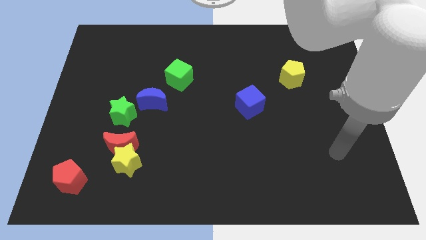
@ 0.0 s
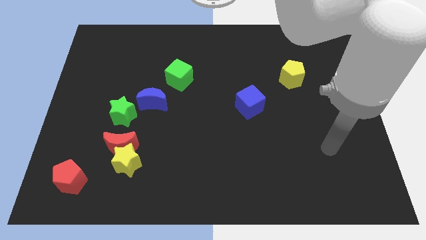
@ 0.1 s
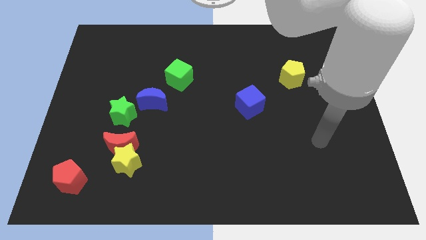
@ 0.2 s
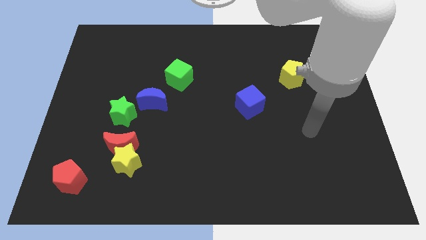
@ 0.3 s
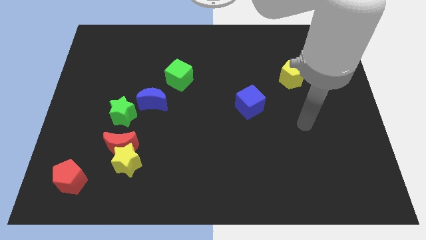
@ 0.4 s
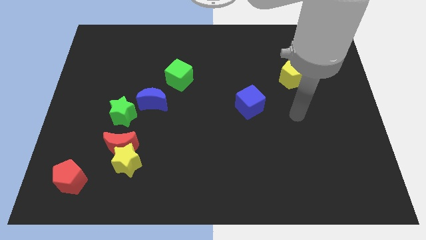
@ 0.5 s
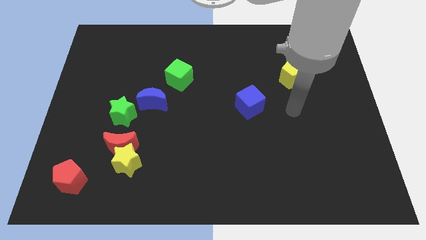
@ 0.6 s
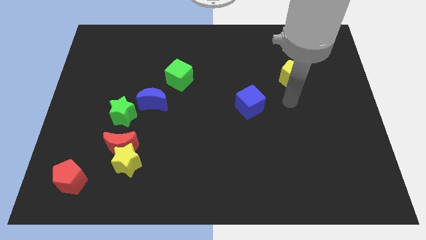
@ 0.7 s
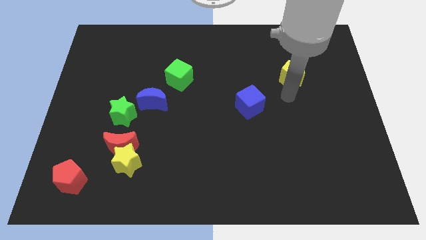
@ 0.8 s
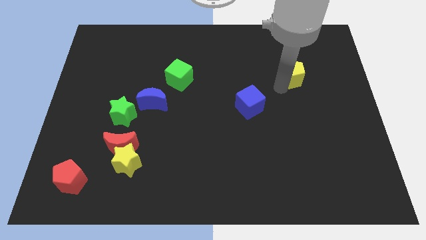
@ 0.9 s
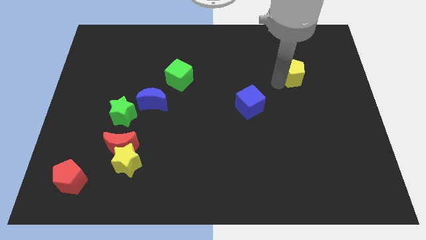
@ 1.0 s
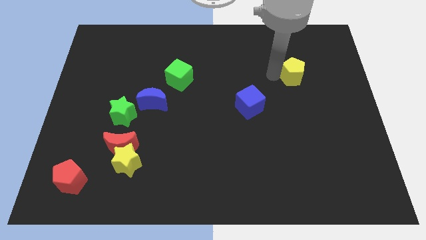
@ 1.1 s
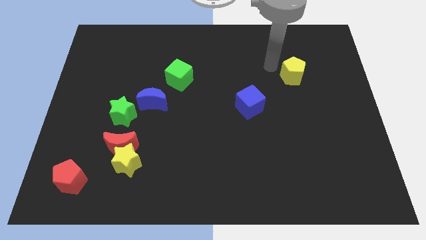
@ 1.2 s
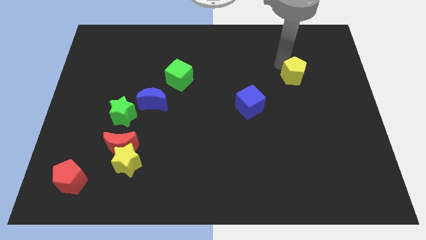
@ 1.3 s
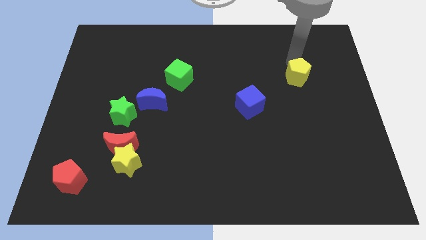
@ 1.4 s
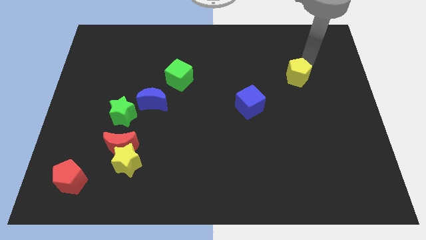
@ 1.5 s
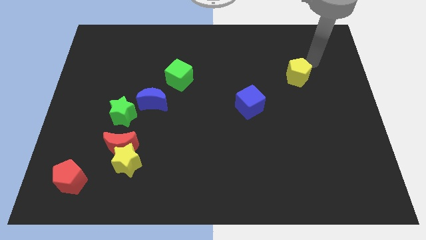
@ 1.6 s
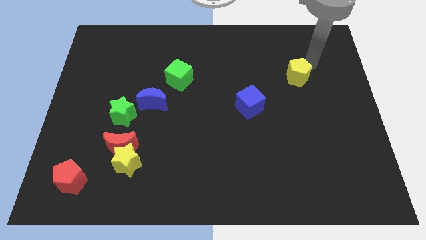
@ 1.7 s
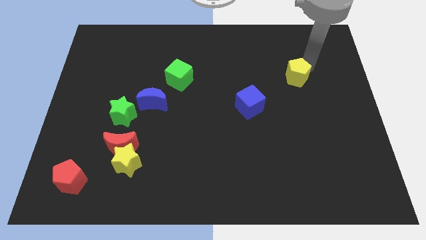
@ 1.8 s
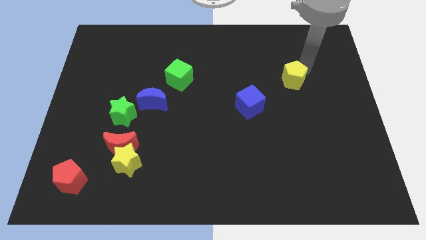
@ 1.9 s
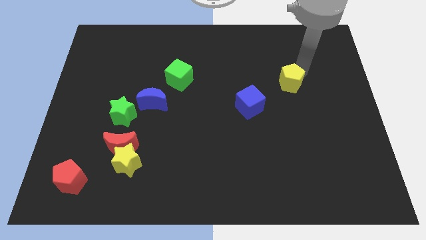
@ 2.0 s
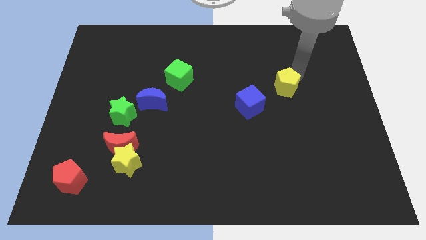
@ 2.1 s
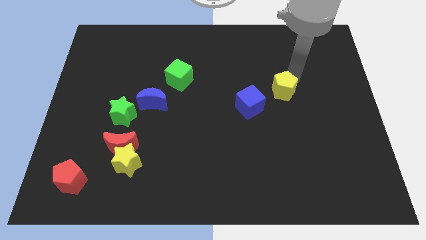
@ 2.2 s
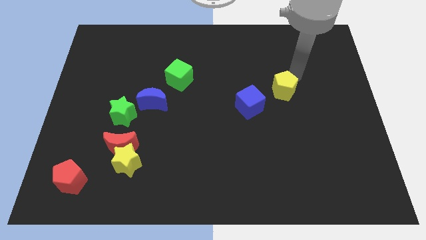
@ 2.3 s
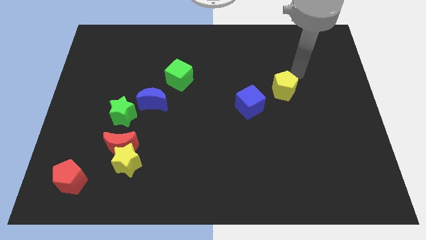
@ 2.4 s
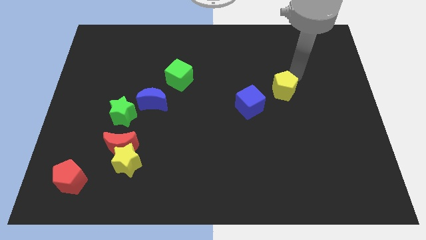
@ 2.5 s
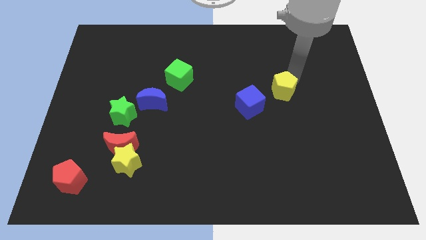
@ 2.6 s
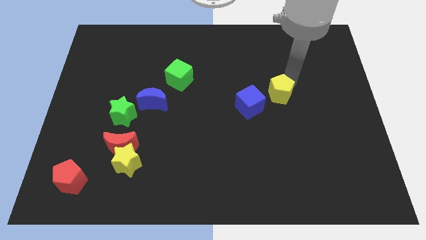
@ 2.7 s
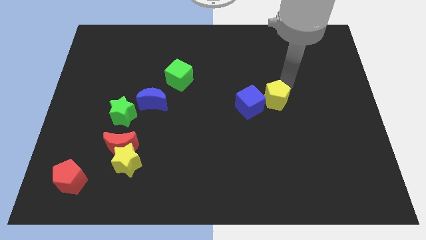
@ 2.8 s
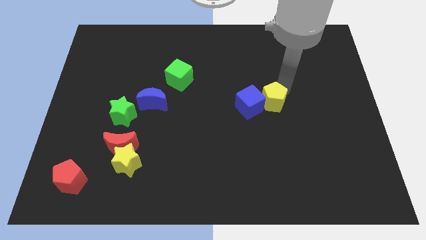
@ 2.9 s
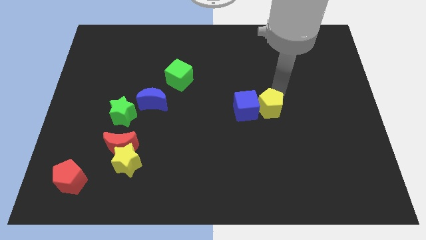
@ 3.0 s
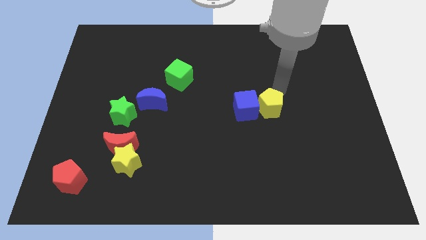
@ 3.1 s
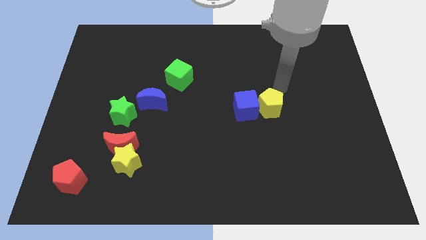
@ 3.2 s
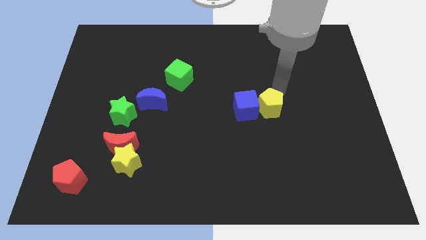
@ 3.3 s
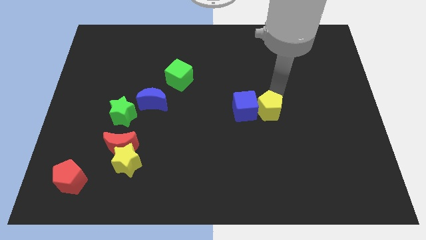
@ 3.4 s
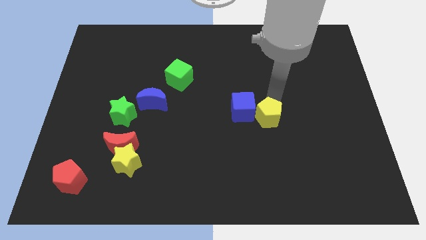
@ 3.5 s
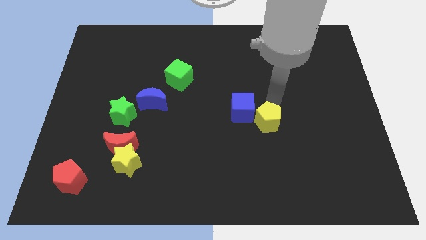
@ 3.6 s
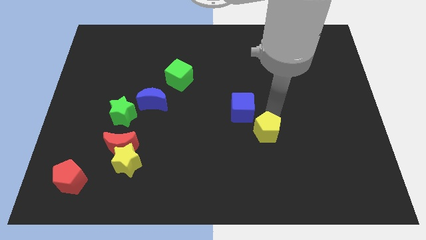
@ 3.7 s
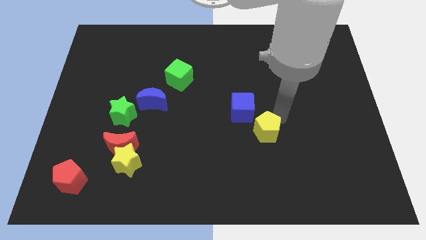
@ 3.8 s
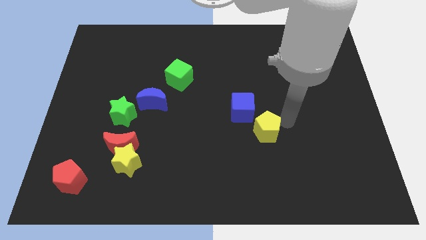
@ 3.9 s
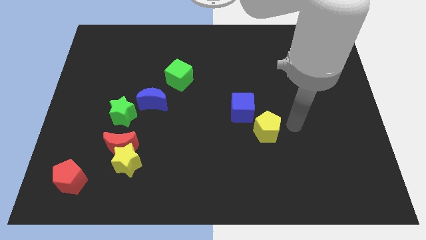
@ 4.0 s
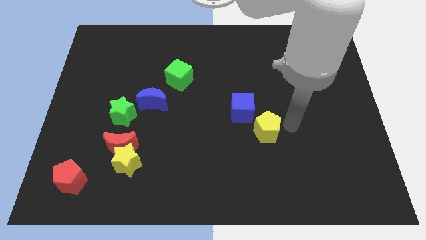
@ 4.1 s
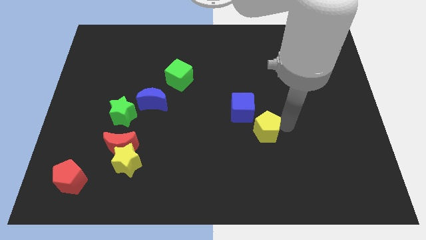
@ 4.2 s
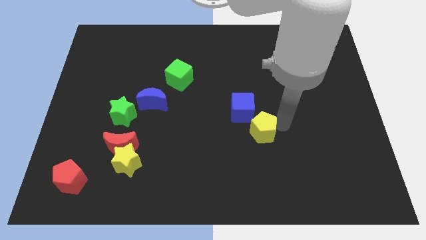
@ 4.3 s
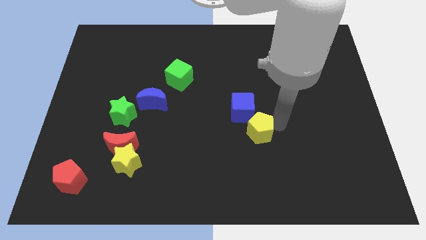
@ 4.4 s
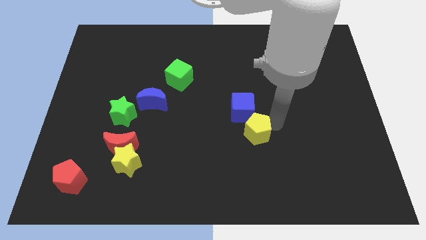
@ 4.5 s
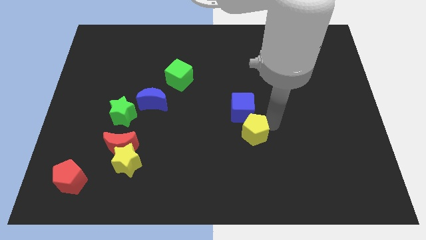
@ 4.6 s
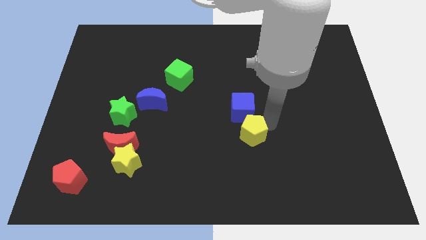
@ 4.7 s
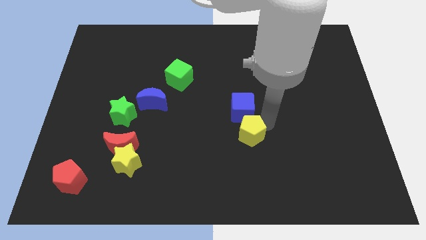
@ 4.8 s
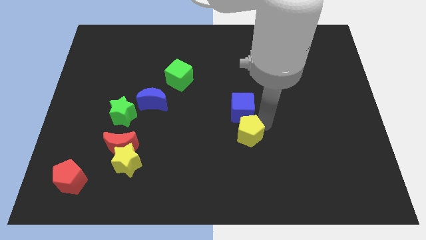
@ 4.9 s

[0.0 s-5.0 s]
move the yellow pentagon down and to the left

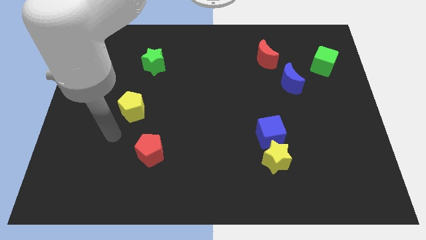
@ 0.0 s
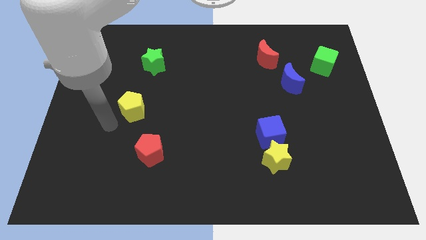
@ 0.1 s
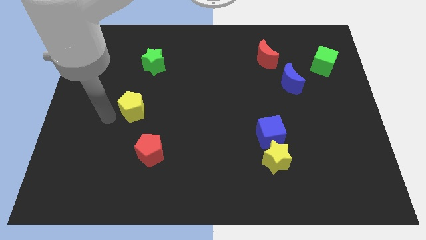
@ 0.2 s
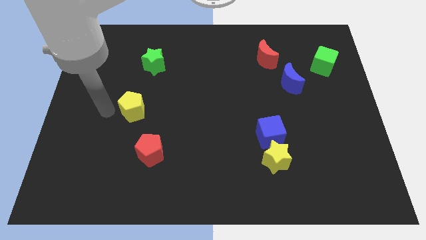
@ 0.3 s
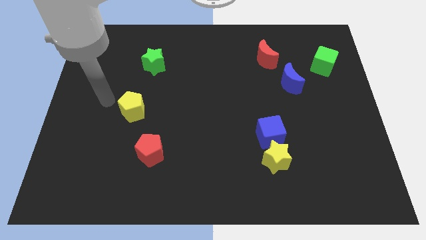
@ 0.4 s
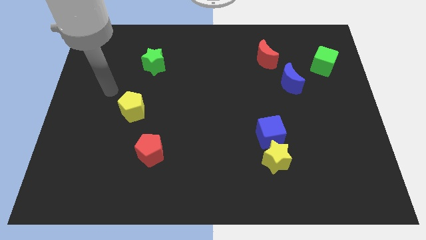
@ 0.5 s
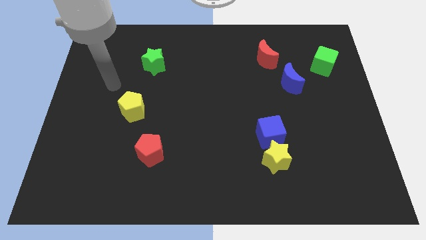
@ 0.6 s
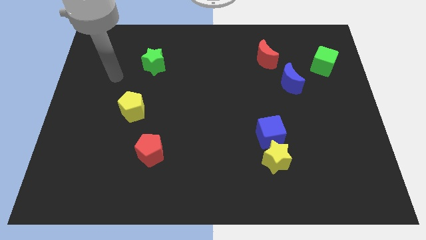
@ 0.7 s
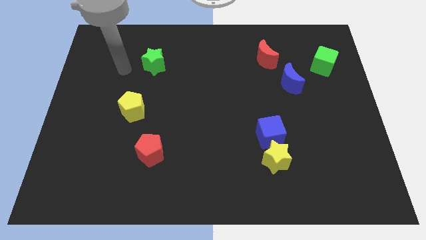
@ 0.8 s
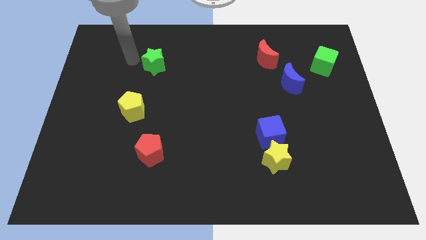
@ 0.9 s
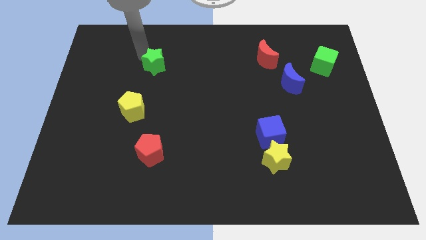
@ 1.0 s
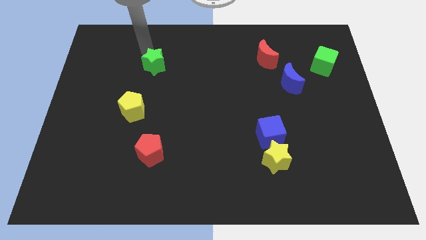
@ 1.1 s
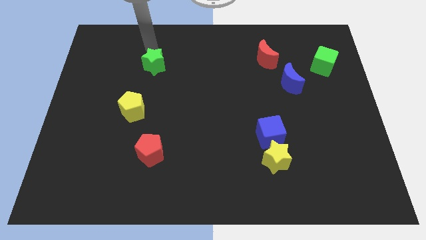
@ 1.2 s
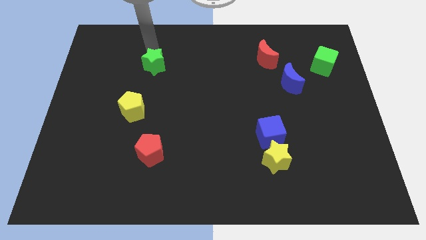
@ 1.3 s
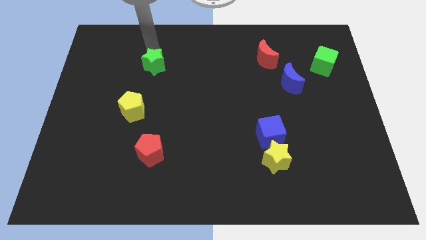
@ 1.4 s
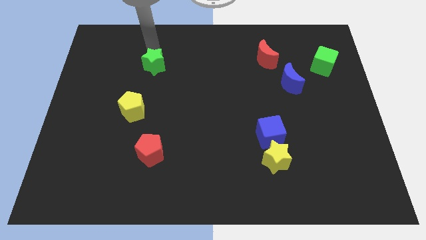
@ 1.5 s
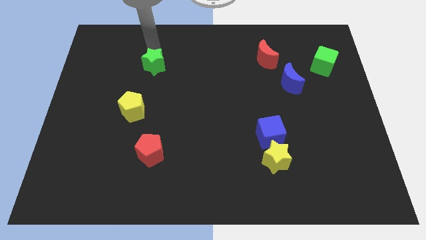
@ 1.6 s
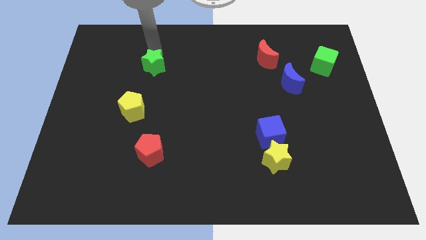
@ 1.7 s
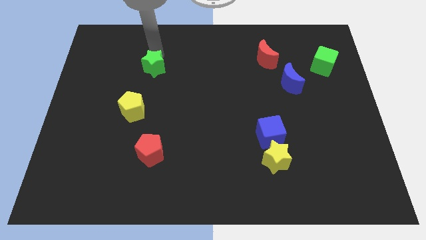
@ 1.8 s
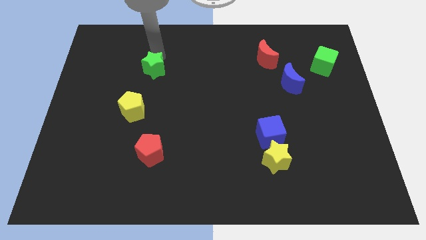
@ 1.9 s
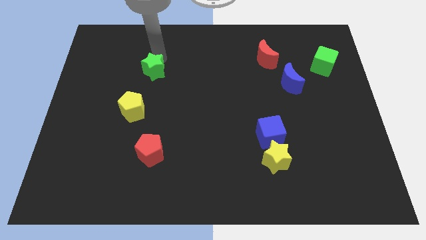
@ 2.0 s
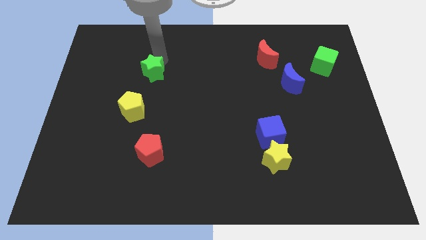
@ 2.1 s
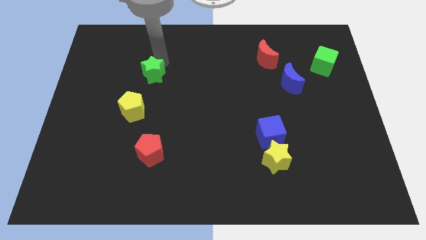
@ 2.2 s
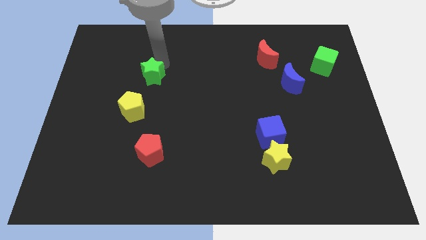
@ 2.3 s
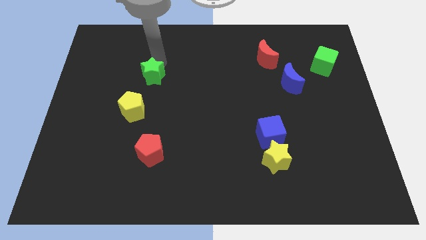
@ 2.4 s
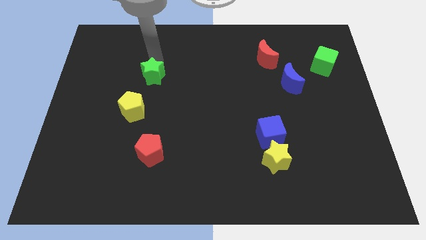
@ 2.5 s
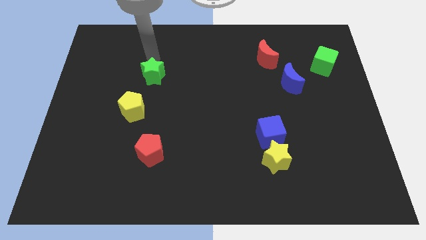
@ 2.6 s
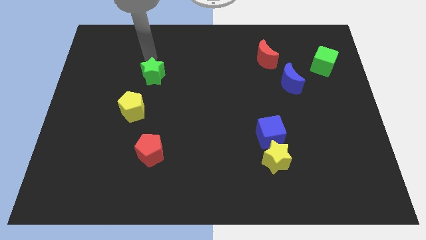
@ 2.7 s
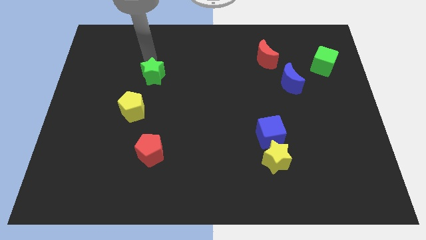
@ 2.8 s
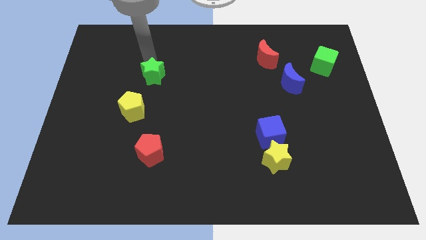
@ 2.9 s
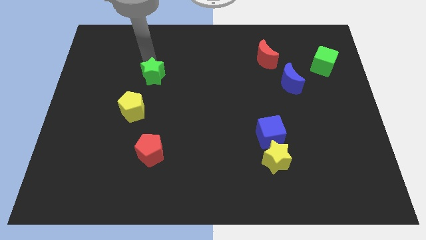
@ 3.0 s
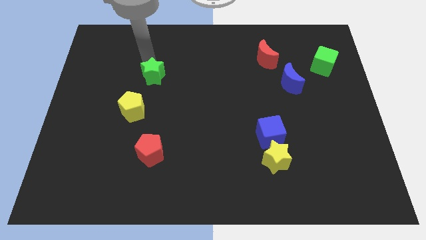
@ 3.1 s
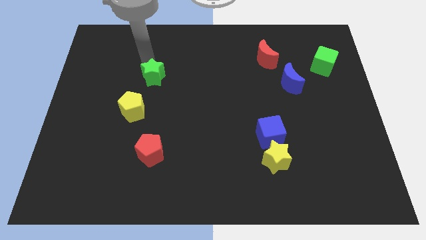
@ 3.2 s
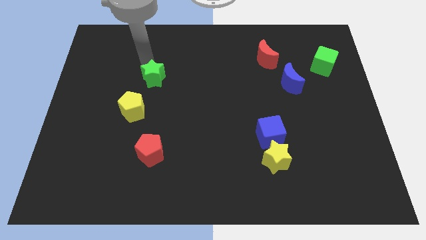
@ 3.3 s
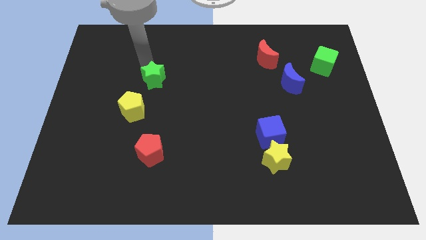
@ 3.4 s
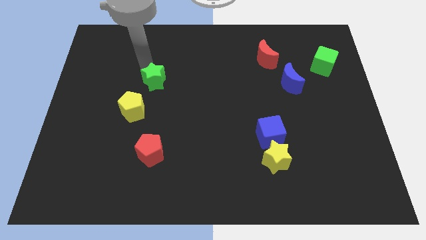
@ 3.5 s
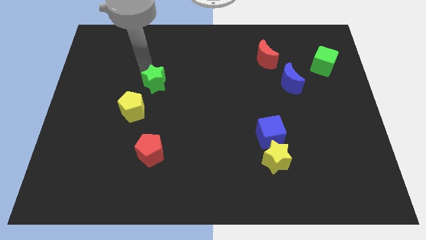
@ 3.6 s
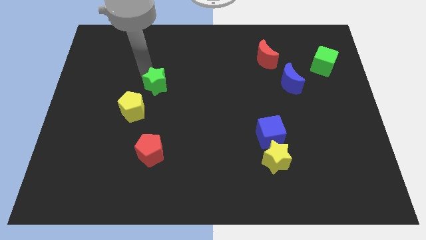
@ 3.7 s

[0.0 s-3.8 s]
slide the green star a little down
